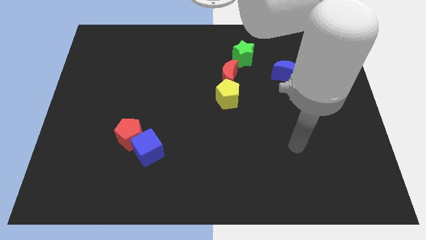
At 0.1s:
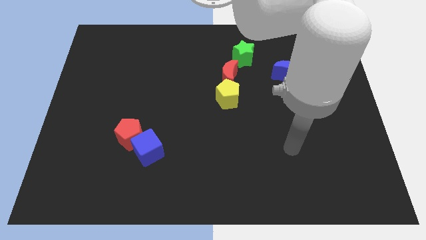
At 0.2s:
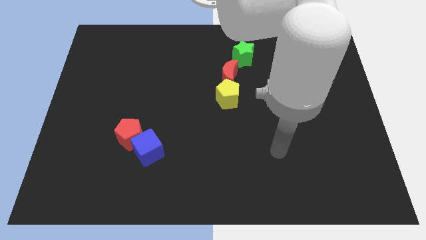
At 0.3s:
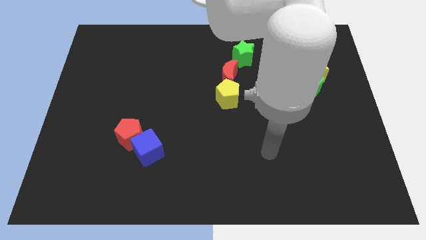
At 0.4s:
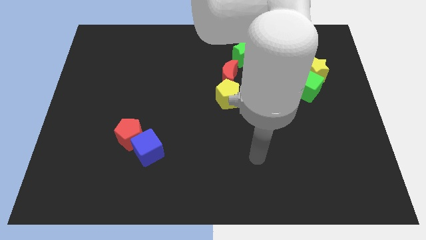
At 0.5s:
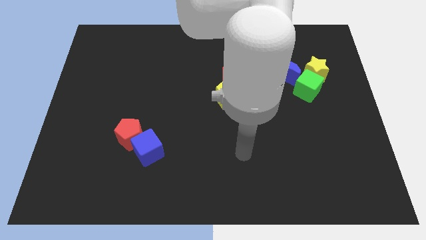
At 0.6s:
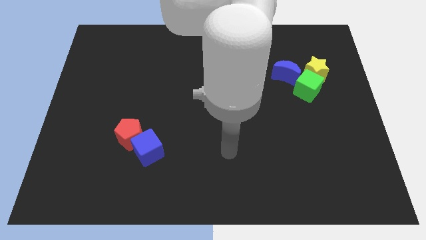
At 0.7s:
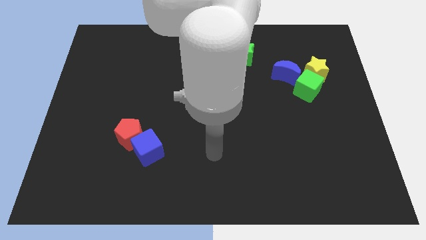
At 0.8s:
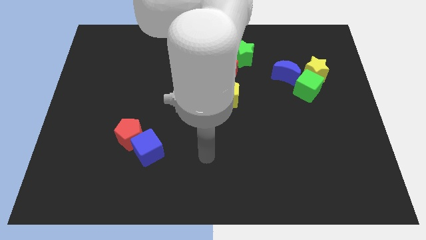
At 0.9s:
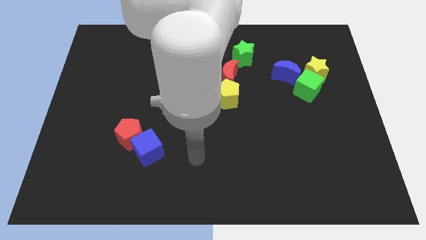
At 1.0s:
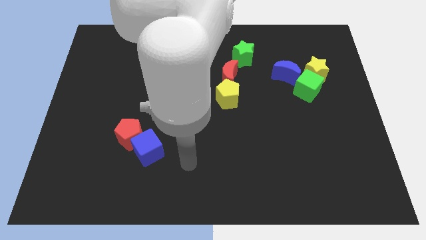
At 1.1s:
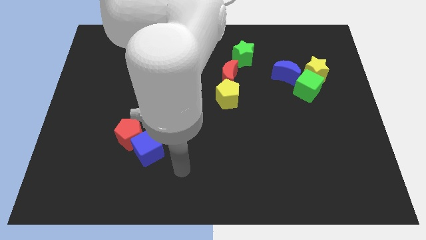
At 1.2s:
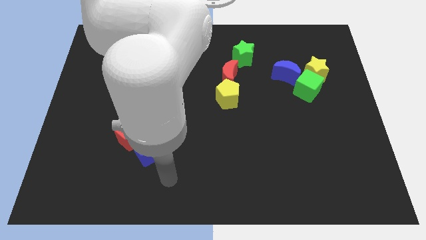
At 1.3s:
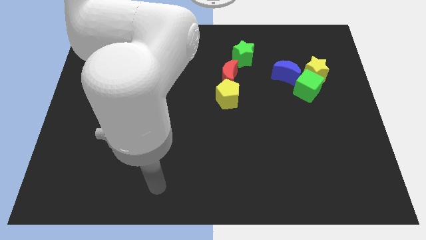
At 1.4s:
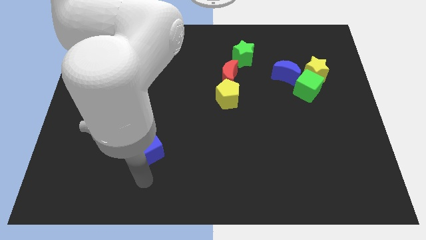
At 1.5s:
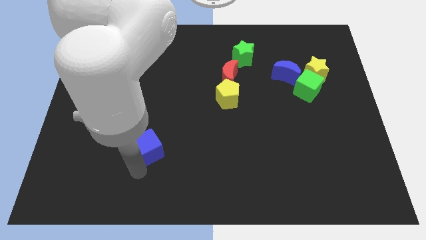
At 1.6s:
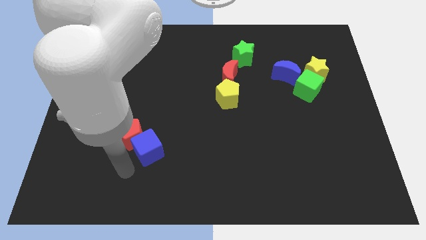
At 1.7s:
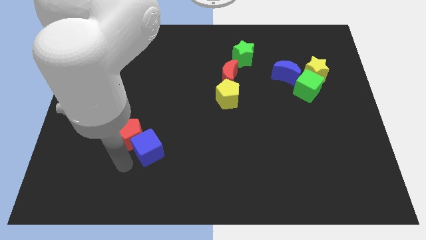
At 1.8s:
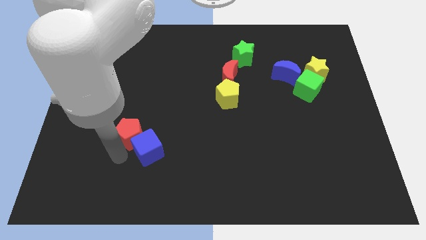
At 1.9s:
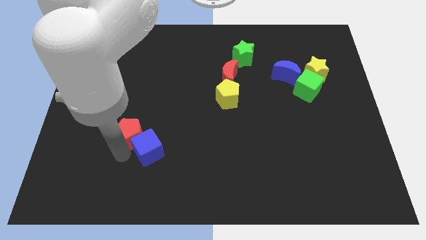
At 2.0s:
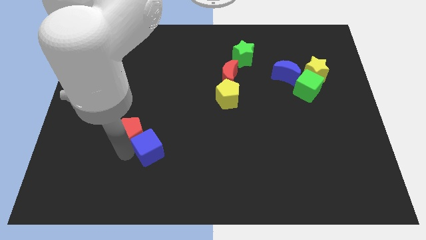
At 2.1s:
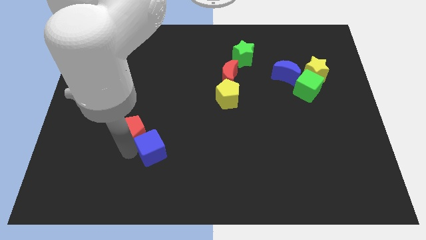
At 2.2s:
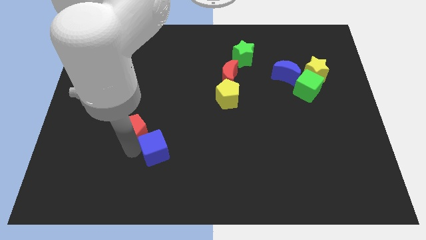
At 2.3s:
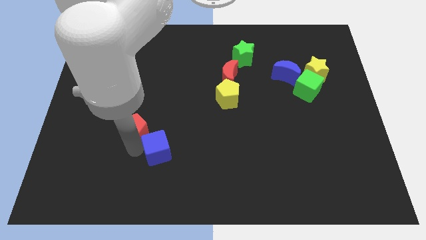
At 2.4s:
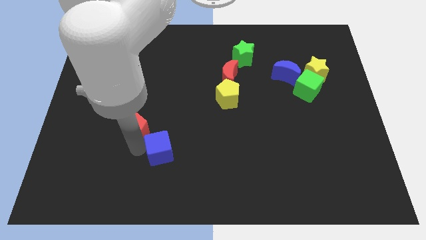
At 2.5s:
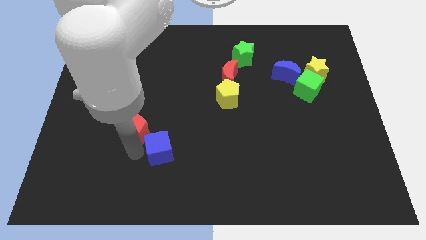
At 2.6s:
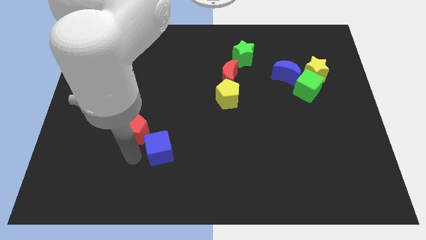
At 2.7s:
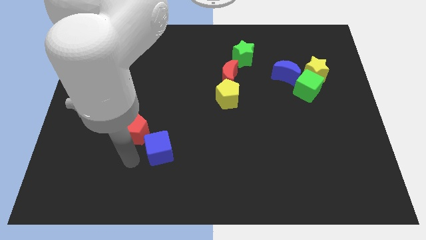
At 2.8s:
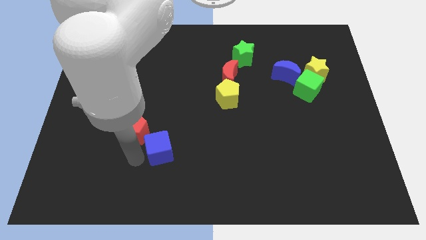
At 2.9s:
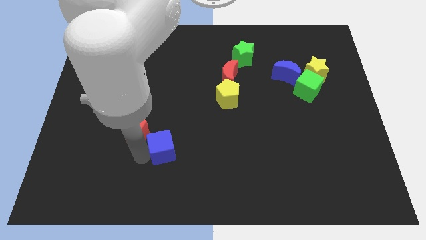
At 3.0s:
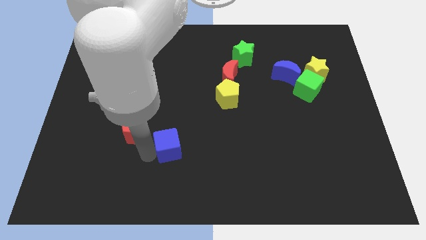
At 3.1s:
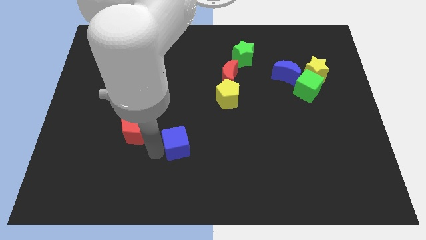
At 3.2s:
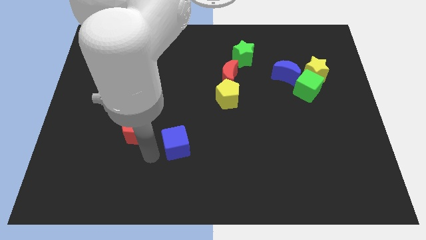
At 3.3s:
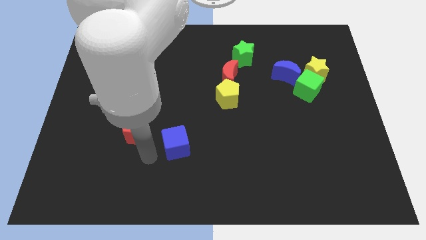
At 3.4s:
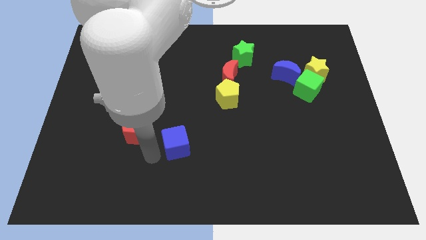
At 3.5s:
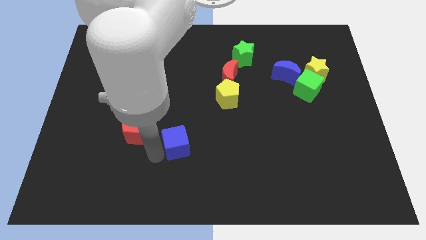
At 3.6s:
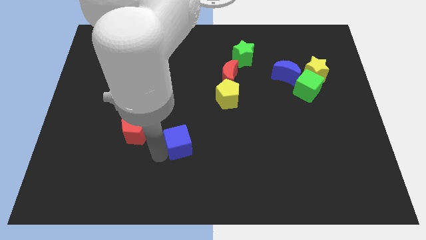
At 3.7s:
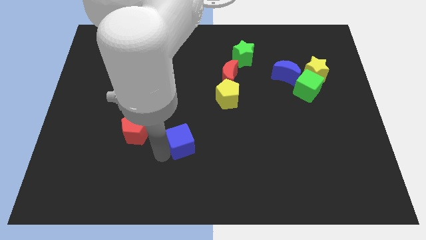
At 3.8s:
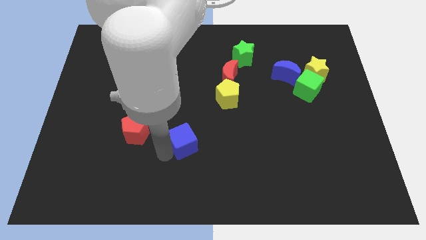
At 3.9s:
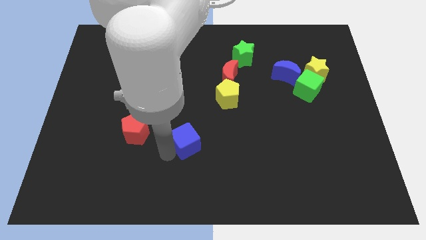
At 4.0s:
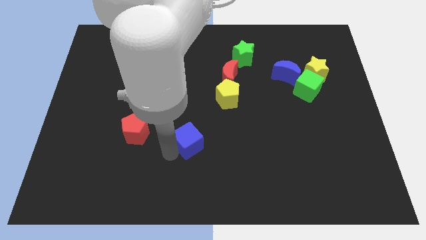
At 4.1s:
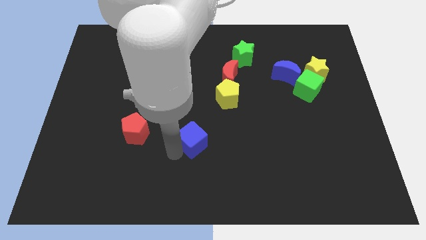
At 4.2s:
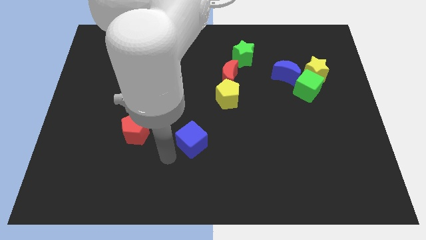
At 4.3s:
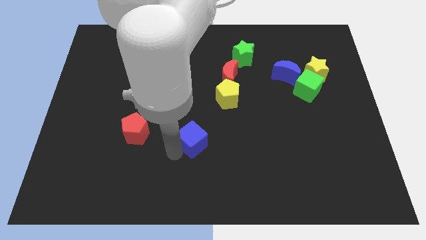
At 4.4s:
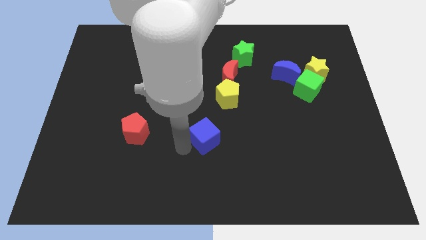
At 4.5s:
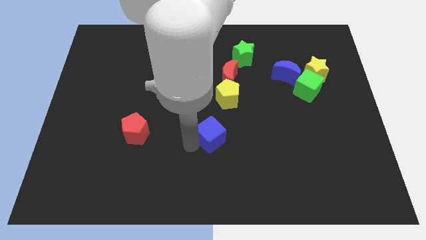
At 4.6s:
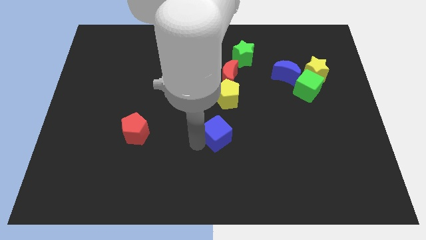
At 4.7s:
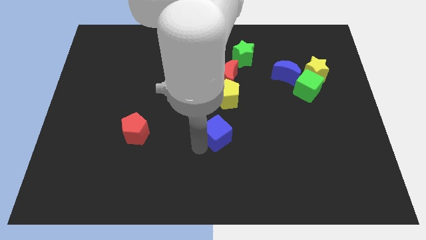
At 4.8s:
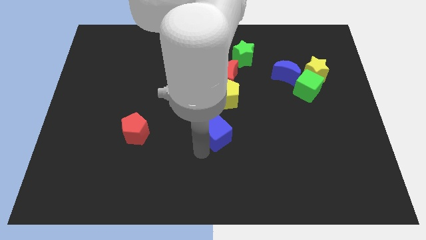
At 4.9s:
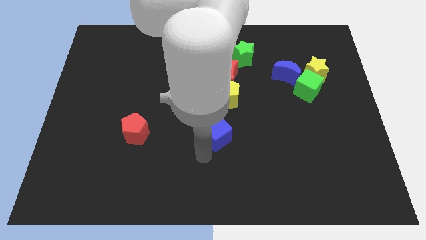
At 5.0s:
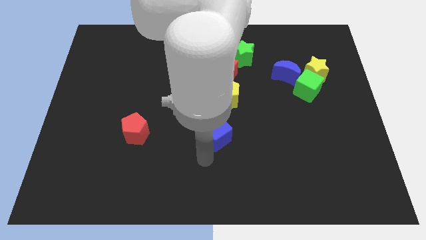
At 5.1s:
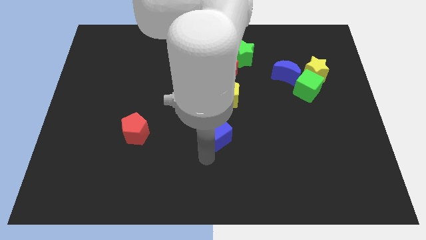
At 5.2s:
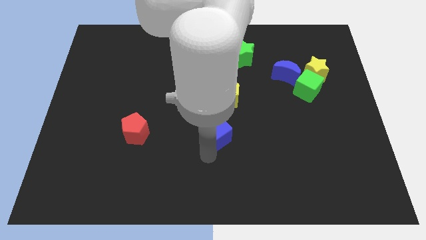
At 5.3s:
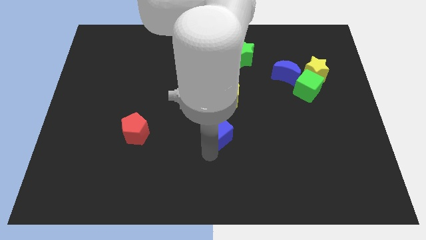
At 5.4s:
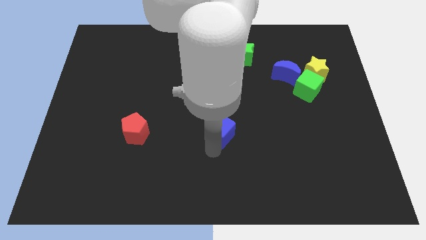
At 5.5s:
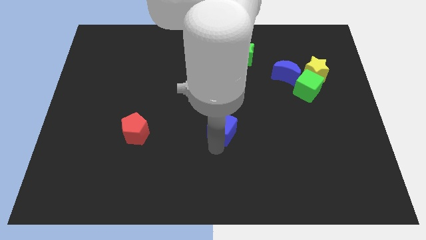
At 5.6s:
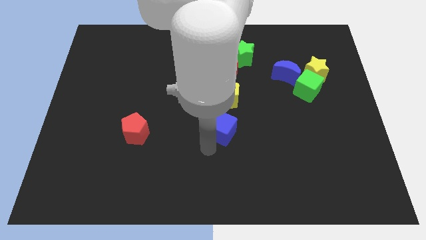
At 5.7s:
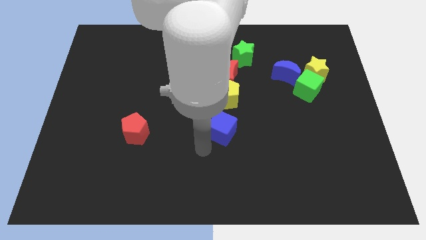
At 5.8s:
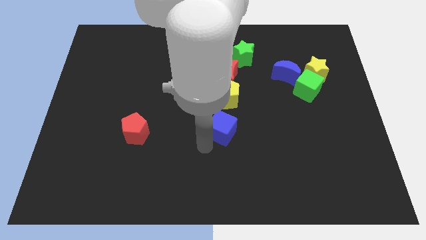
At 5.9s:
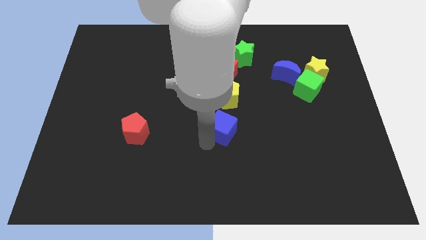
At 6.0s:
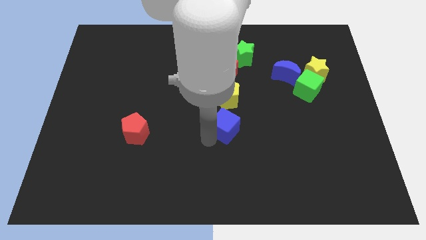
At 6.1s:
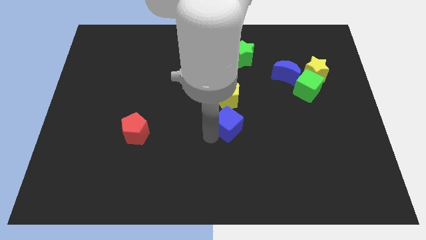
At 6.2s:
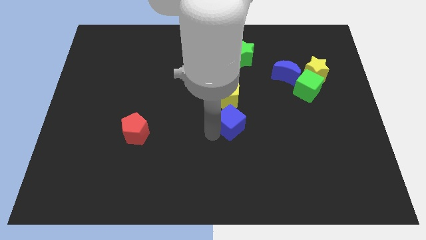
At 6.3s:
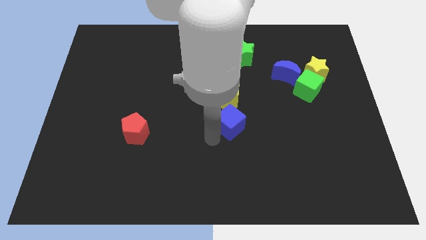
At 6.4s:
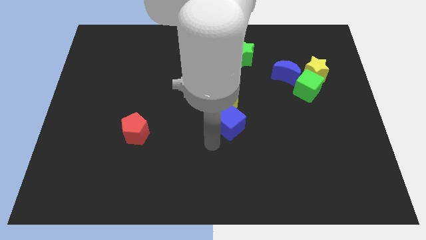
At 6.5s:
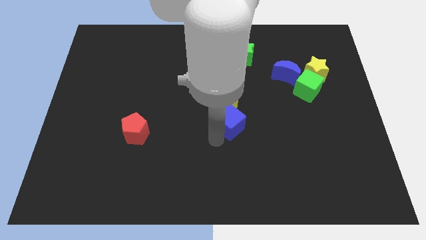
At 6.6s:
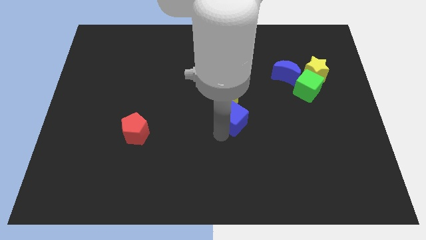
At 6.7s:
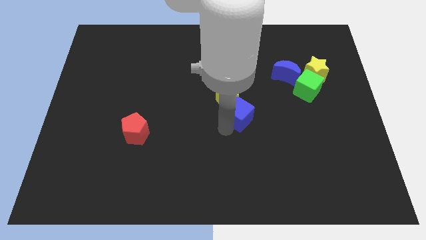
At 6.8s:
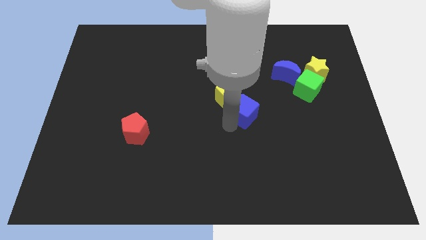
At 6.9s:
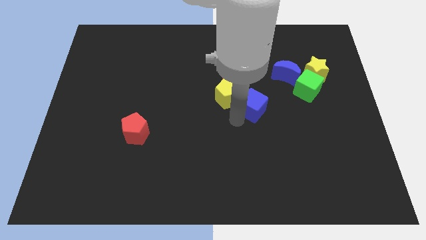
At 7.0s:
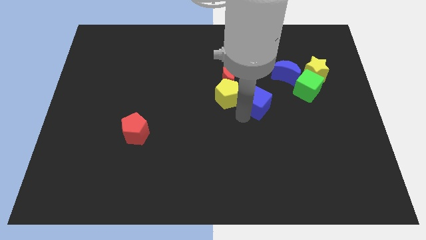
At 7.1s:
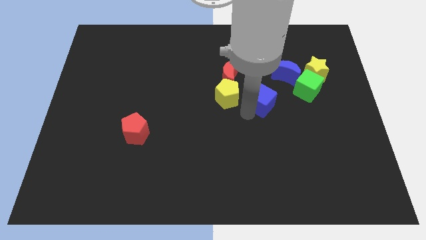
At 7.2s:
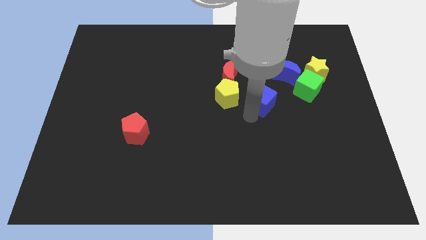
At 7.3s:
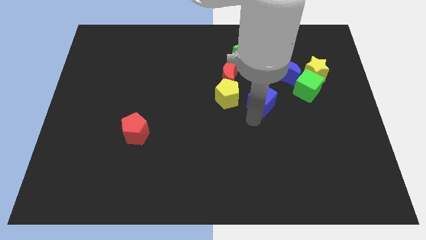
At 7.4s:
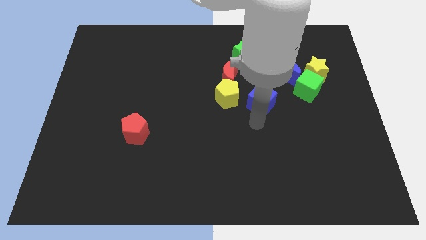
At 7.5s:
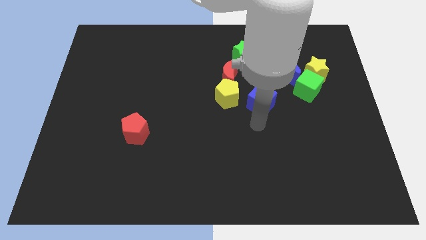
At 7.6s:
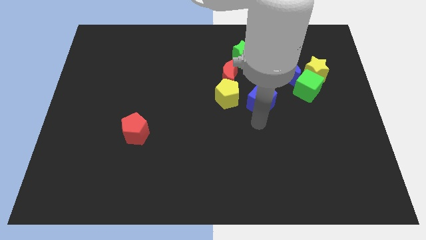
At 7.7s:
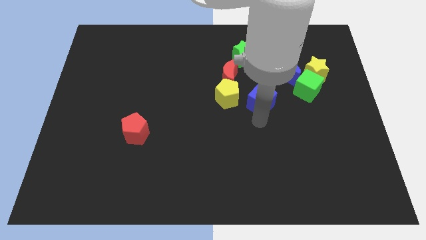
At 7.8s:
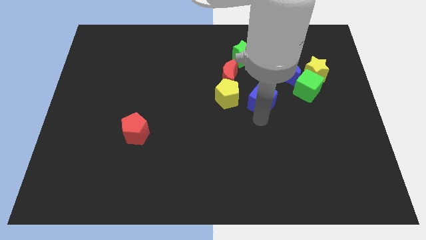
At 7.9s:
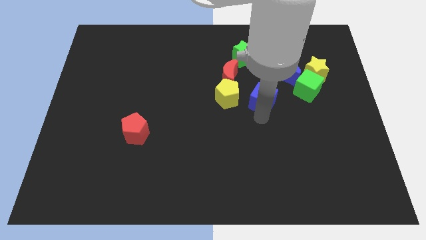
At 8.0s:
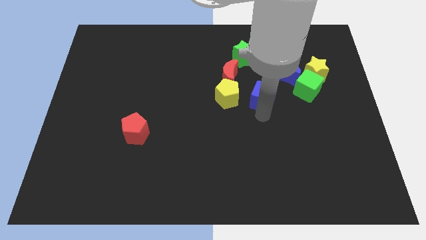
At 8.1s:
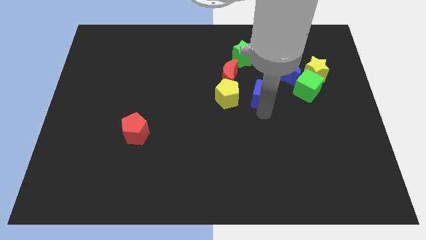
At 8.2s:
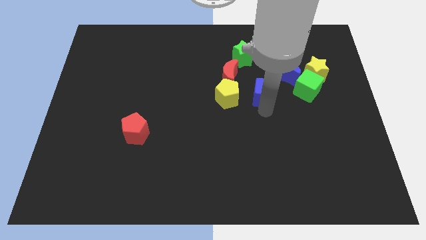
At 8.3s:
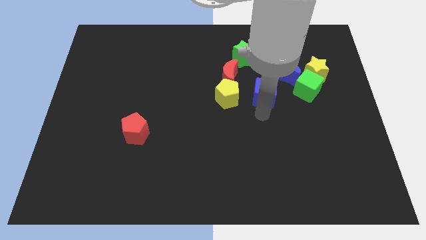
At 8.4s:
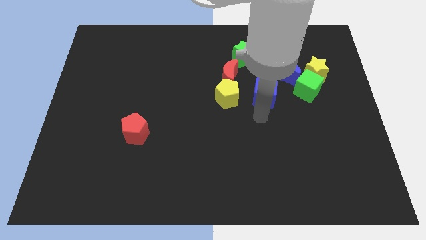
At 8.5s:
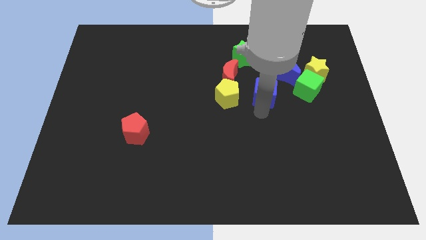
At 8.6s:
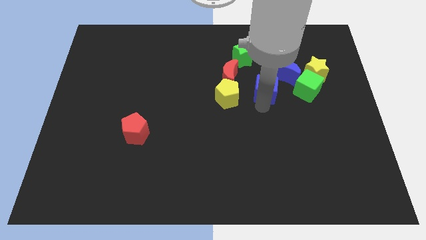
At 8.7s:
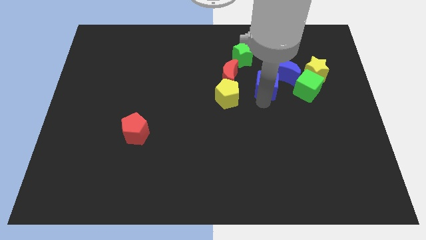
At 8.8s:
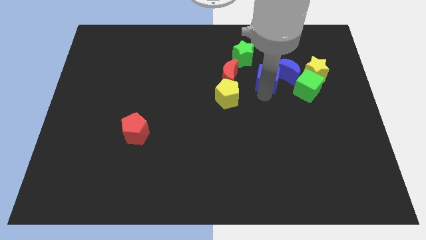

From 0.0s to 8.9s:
move the blue cube to the top left side of the green cube
